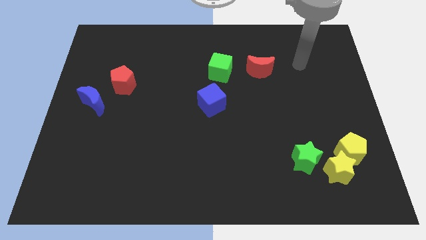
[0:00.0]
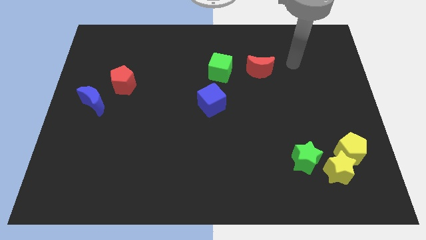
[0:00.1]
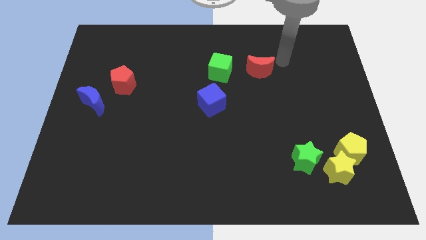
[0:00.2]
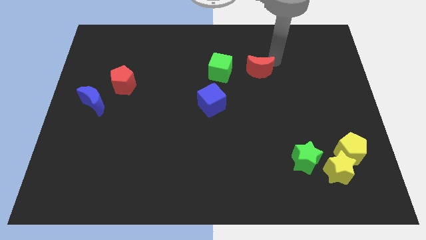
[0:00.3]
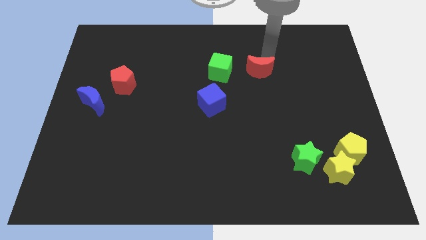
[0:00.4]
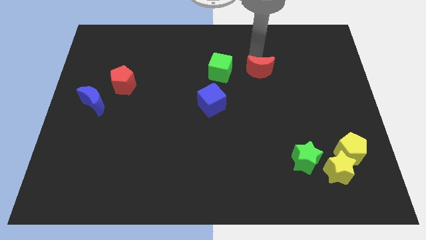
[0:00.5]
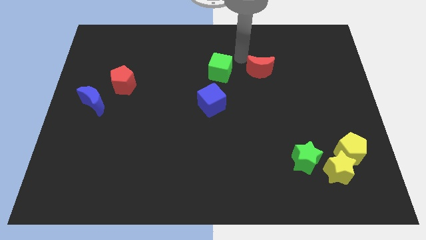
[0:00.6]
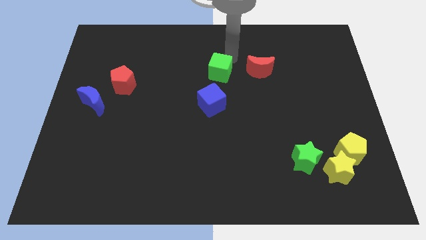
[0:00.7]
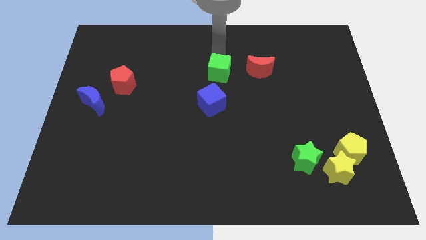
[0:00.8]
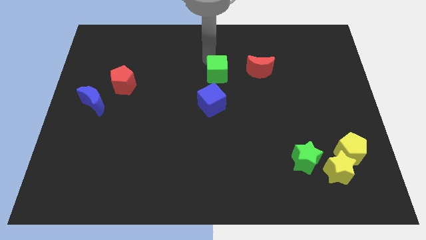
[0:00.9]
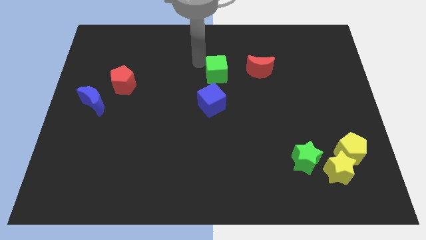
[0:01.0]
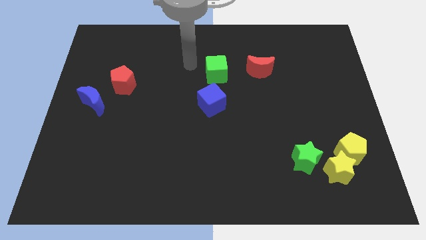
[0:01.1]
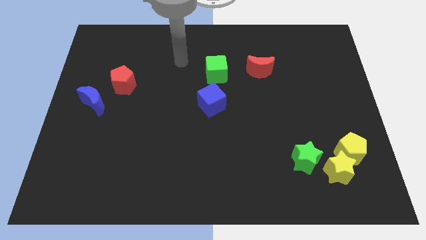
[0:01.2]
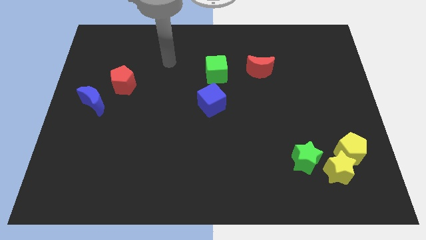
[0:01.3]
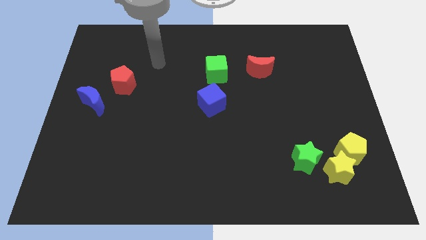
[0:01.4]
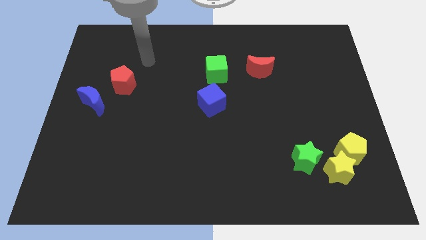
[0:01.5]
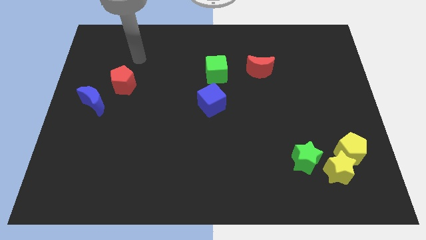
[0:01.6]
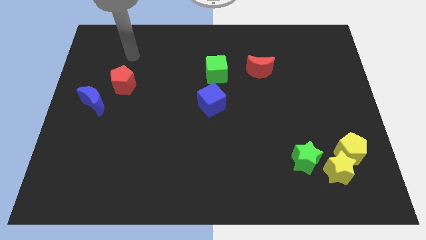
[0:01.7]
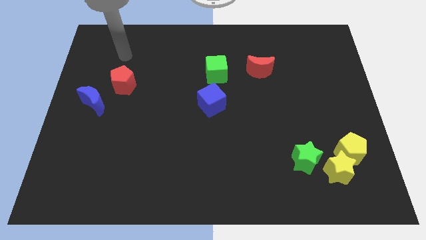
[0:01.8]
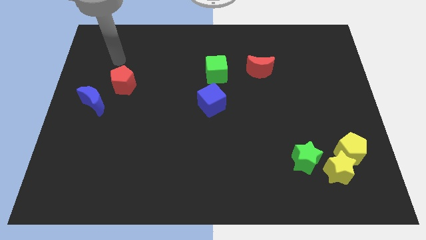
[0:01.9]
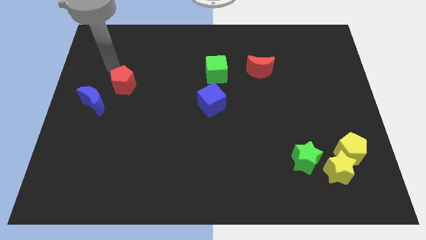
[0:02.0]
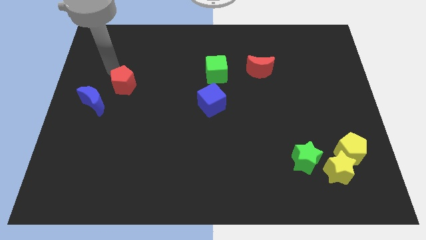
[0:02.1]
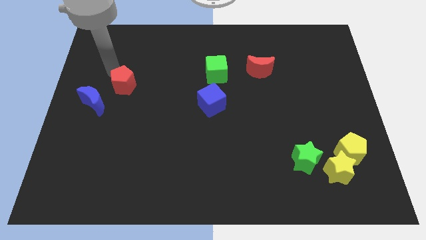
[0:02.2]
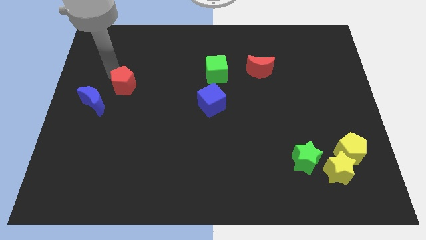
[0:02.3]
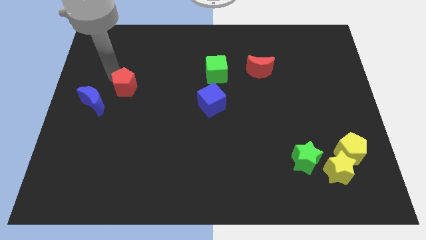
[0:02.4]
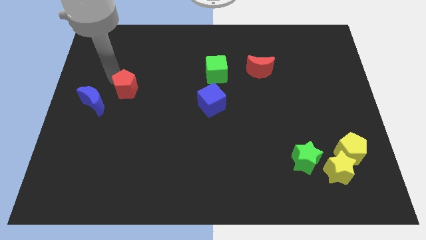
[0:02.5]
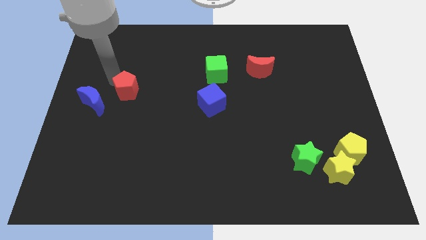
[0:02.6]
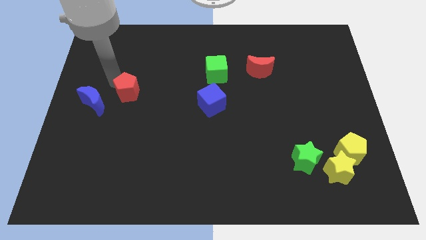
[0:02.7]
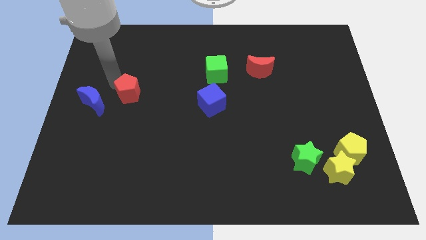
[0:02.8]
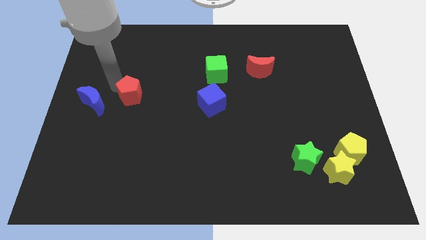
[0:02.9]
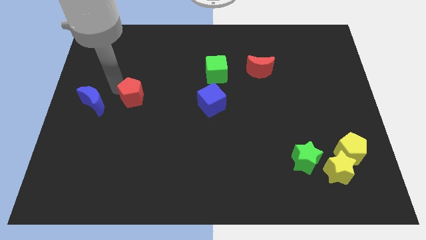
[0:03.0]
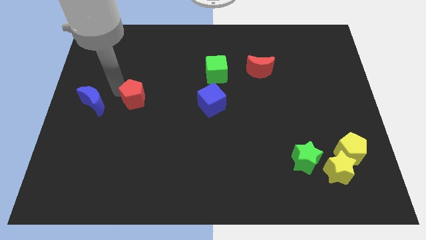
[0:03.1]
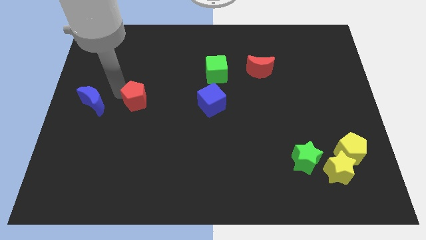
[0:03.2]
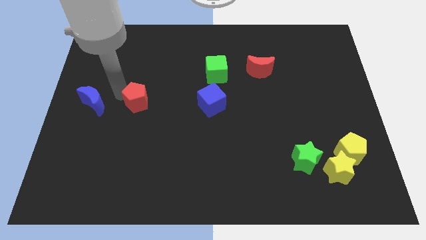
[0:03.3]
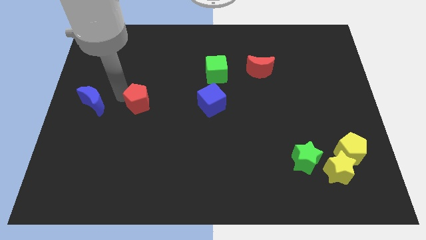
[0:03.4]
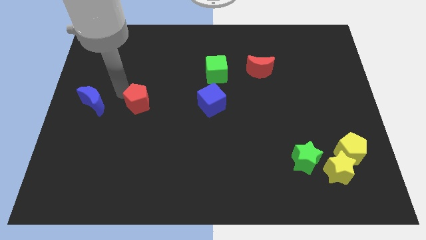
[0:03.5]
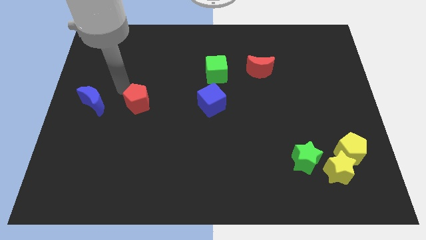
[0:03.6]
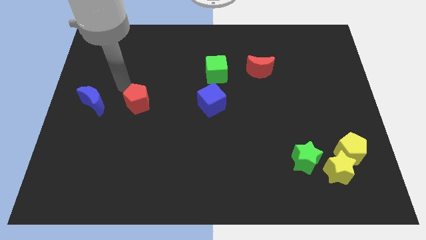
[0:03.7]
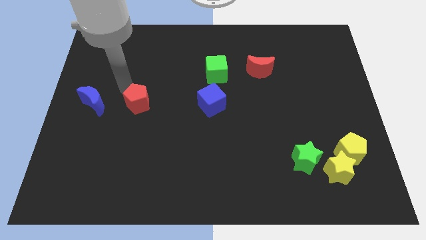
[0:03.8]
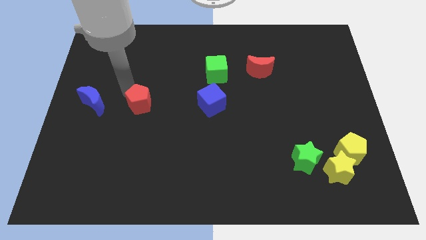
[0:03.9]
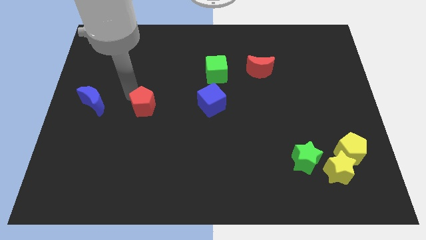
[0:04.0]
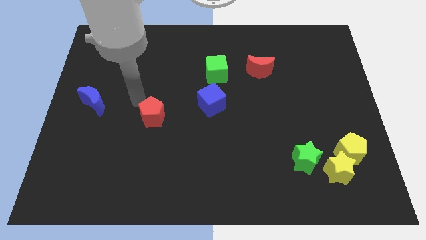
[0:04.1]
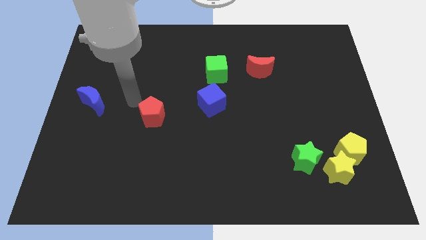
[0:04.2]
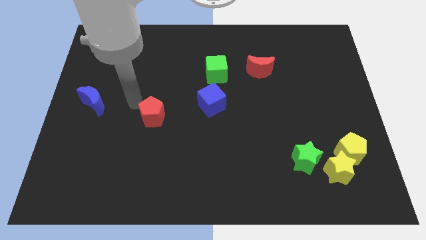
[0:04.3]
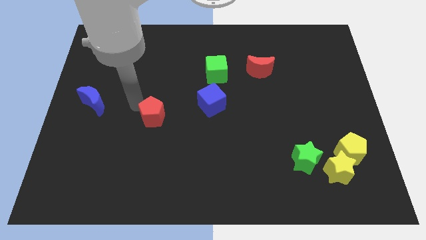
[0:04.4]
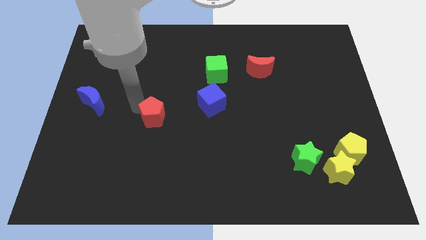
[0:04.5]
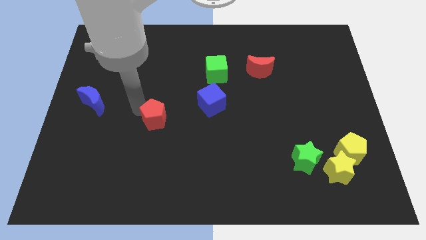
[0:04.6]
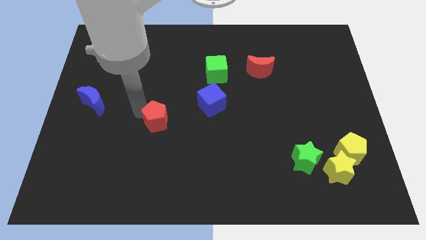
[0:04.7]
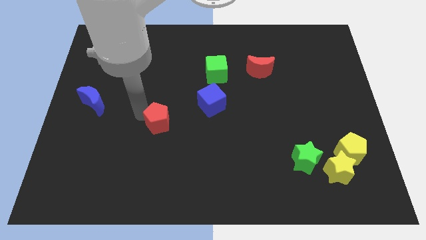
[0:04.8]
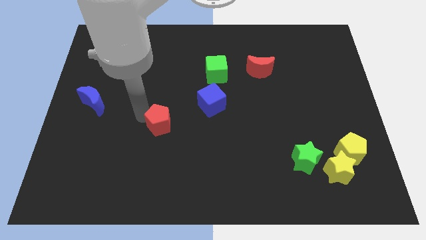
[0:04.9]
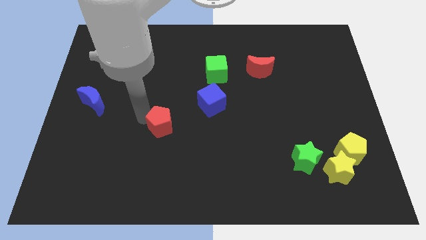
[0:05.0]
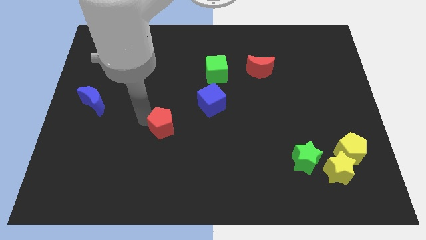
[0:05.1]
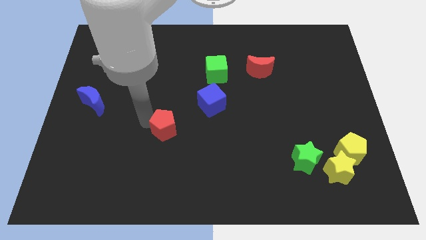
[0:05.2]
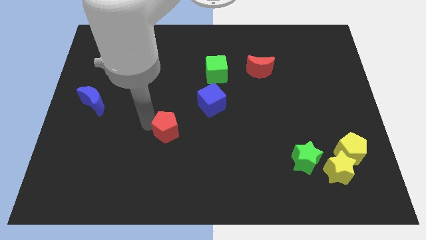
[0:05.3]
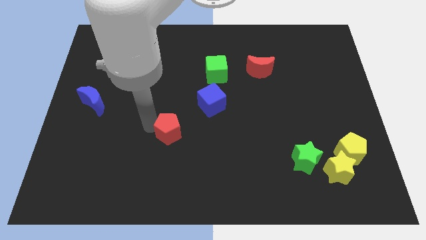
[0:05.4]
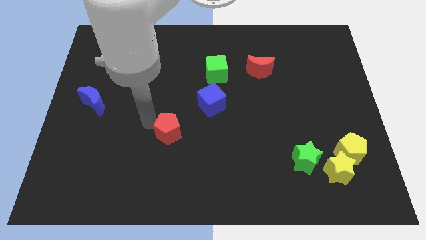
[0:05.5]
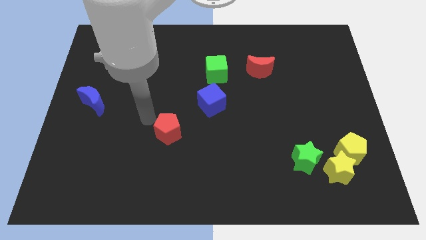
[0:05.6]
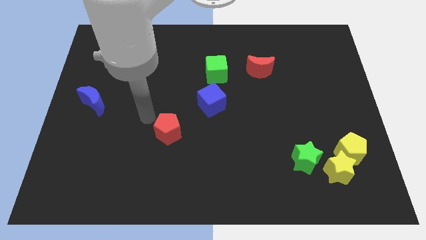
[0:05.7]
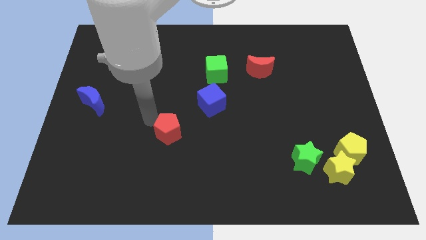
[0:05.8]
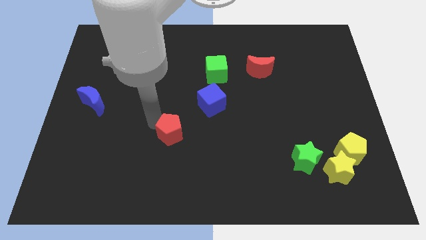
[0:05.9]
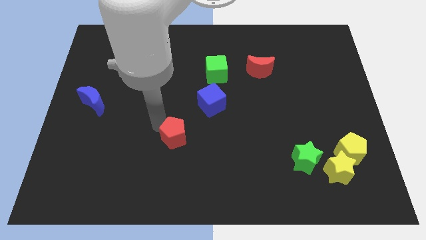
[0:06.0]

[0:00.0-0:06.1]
slide the red pentagon down and right diagonally

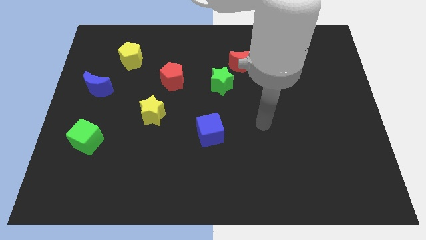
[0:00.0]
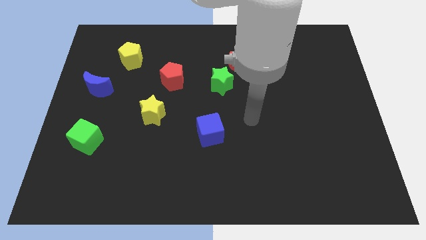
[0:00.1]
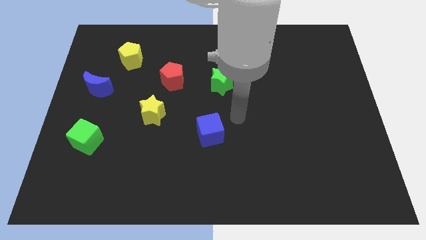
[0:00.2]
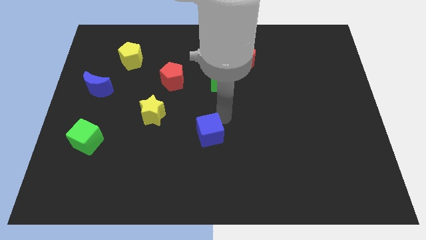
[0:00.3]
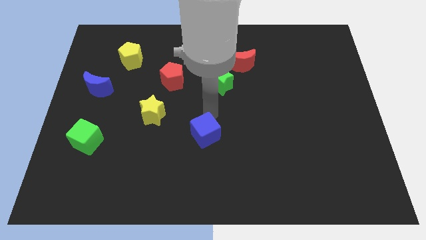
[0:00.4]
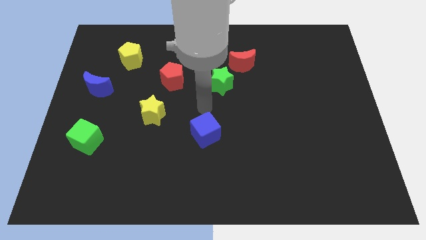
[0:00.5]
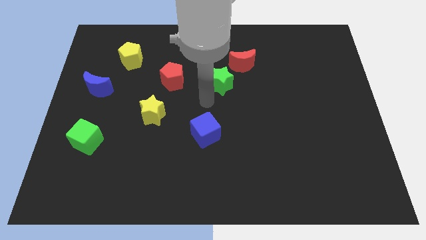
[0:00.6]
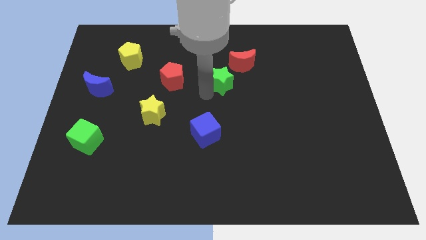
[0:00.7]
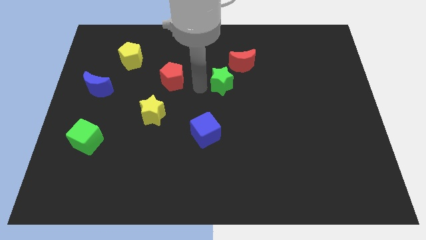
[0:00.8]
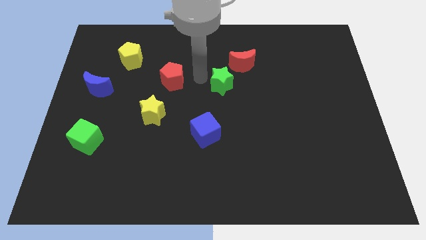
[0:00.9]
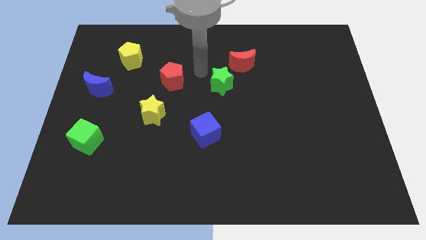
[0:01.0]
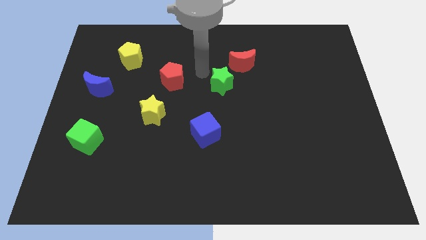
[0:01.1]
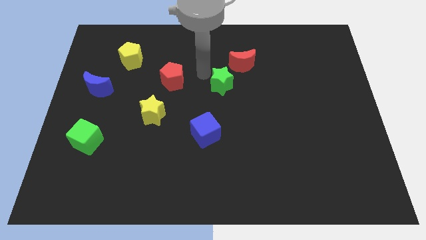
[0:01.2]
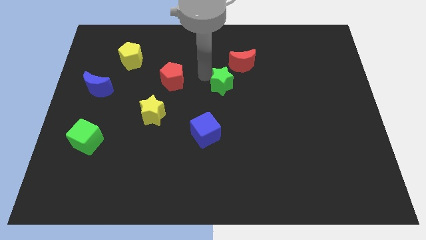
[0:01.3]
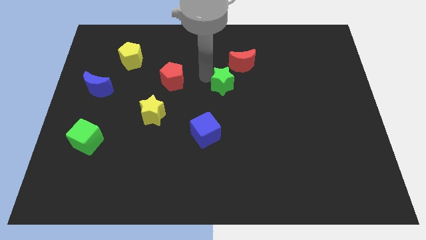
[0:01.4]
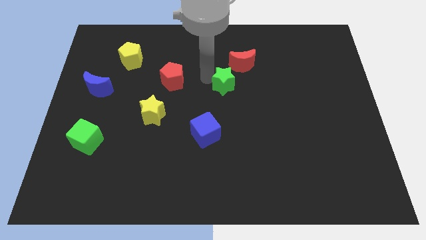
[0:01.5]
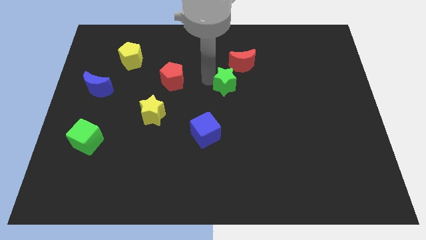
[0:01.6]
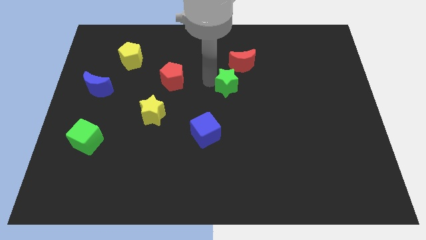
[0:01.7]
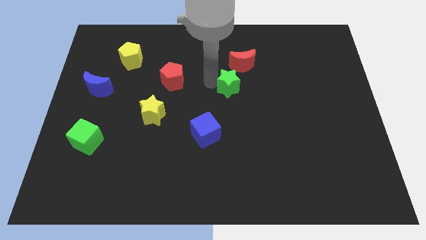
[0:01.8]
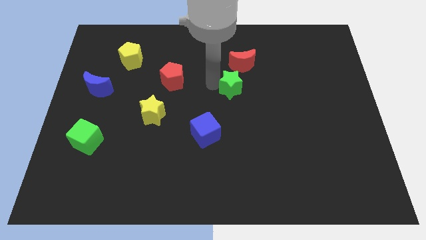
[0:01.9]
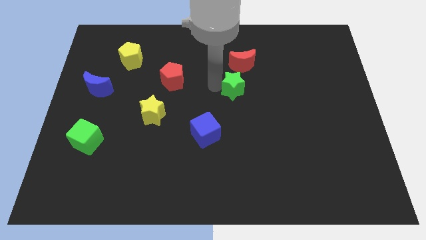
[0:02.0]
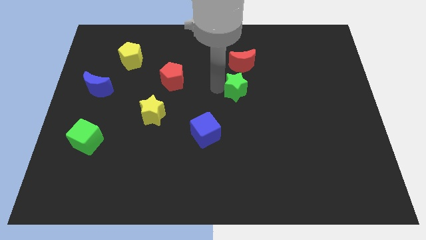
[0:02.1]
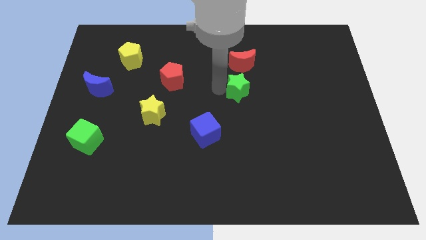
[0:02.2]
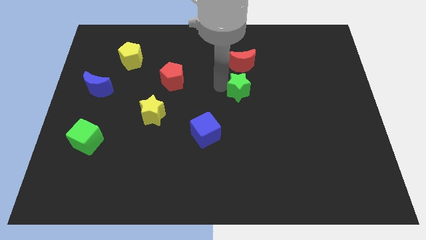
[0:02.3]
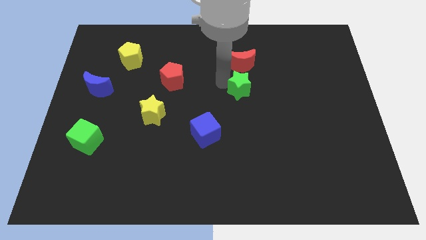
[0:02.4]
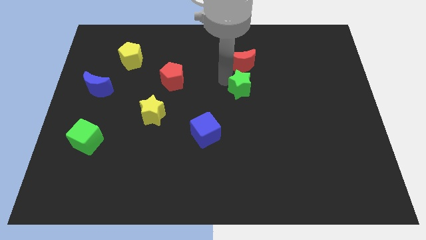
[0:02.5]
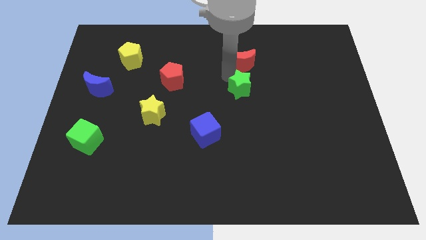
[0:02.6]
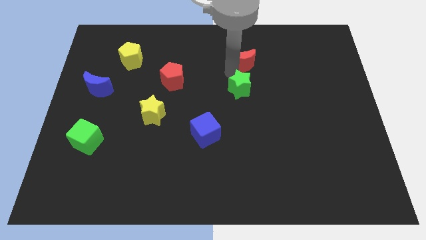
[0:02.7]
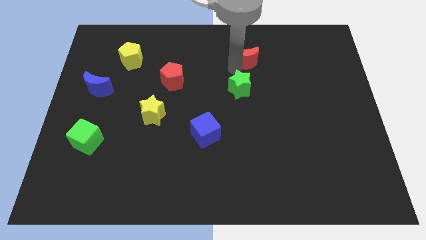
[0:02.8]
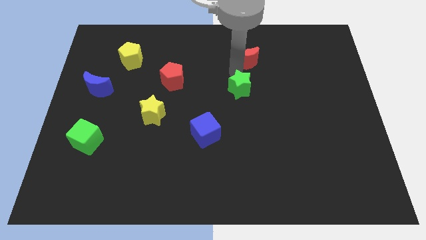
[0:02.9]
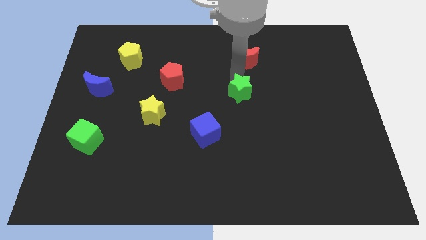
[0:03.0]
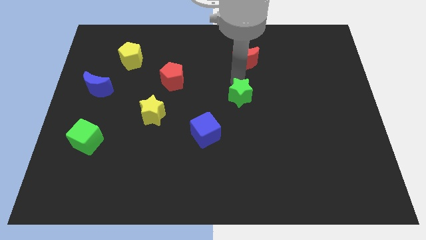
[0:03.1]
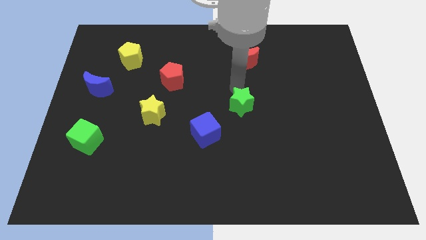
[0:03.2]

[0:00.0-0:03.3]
slightly push the green star diagonally down and right
